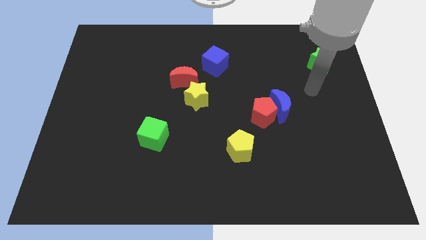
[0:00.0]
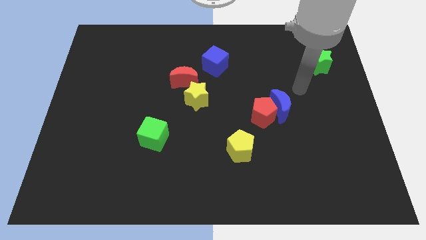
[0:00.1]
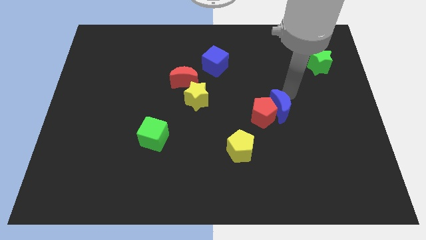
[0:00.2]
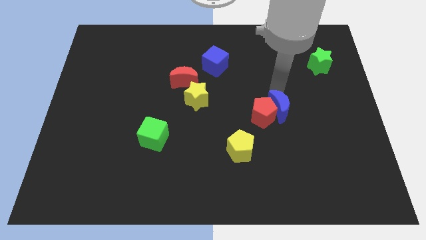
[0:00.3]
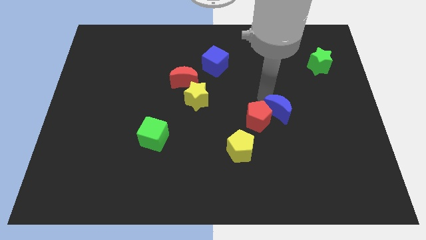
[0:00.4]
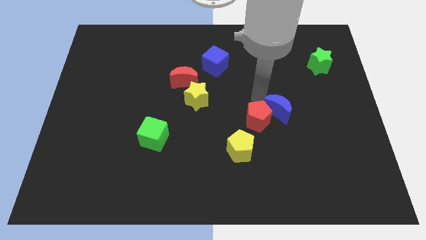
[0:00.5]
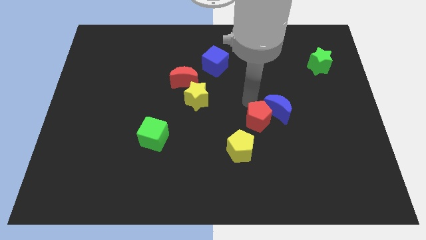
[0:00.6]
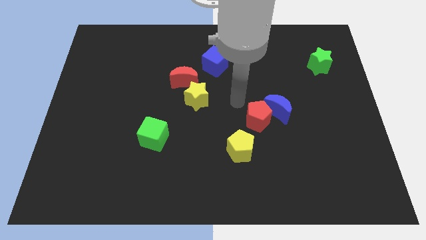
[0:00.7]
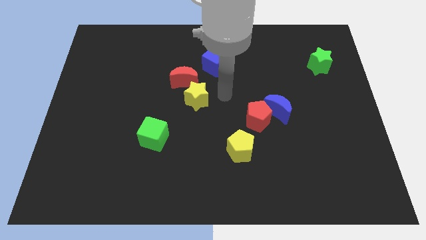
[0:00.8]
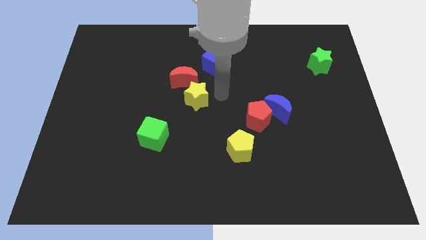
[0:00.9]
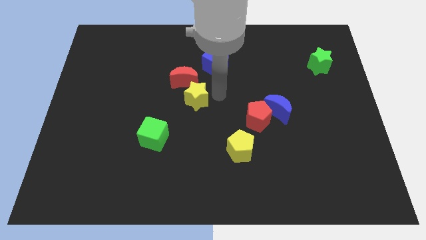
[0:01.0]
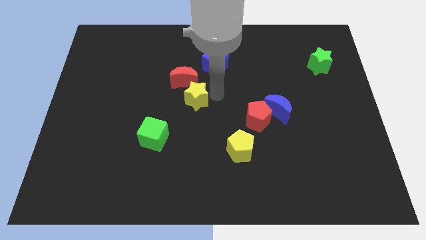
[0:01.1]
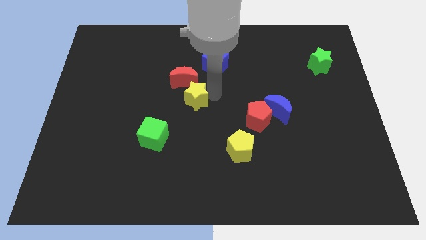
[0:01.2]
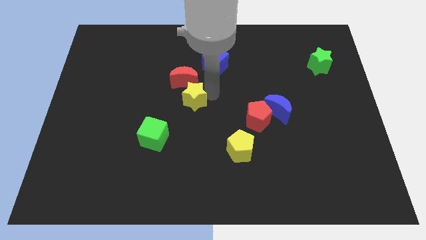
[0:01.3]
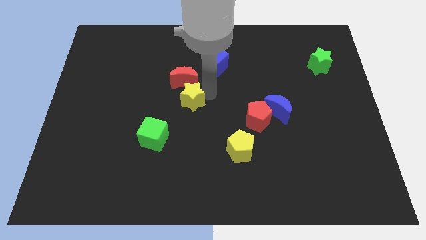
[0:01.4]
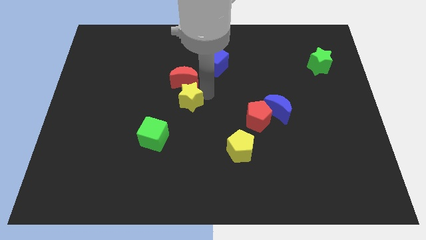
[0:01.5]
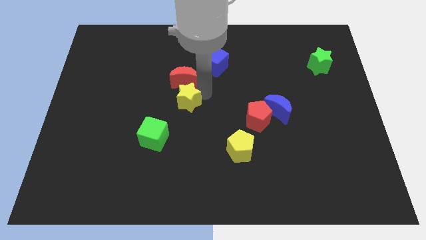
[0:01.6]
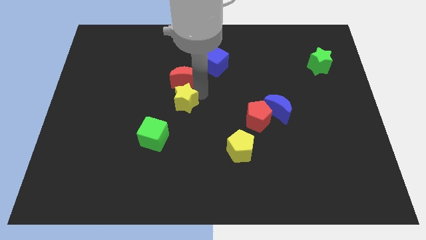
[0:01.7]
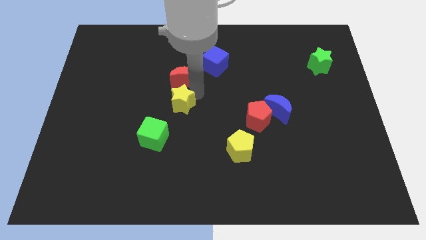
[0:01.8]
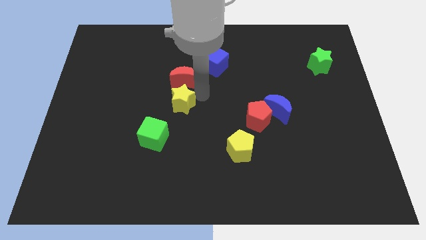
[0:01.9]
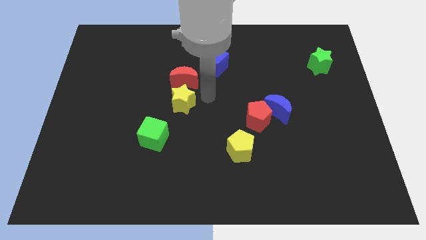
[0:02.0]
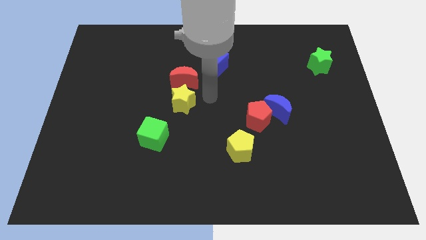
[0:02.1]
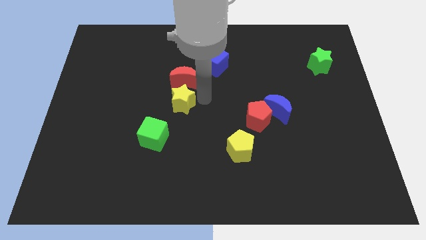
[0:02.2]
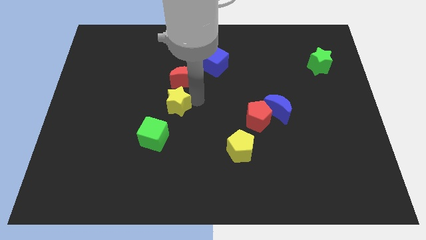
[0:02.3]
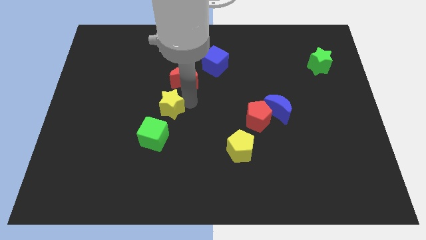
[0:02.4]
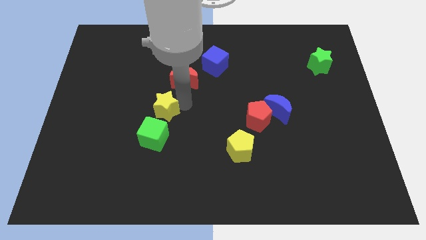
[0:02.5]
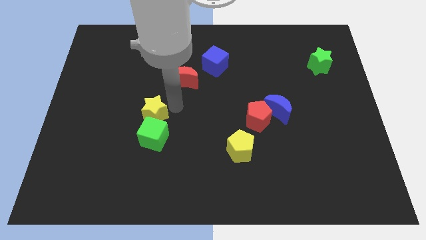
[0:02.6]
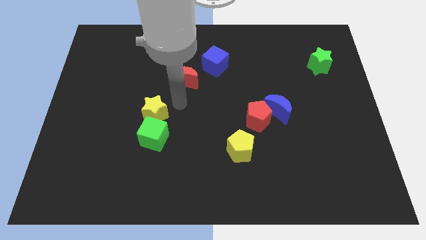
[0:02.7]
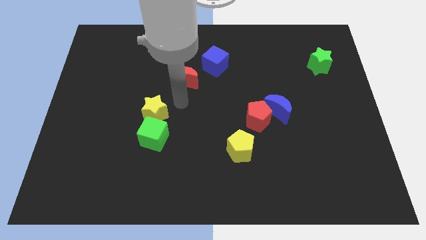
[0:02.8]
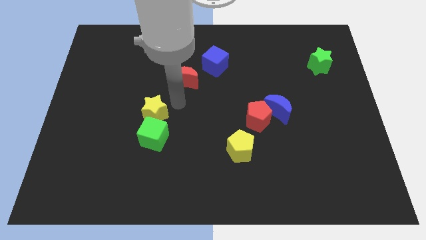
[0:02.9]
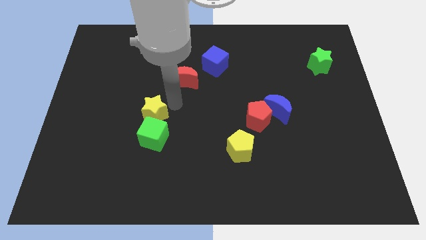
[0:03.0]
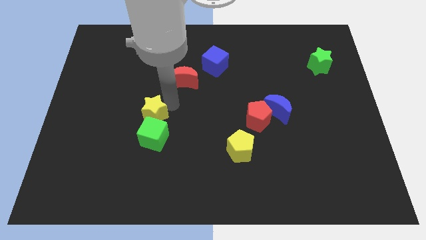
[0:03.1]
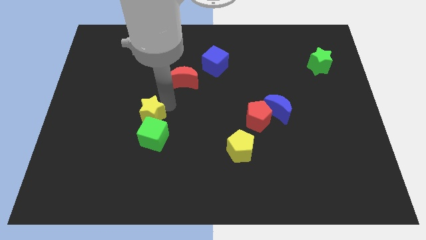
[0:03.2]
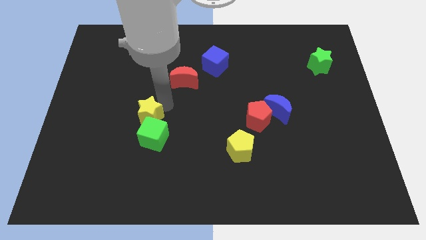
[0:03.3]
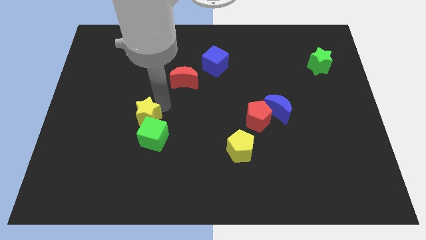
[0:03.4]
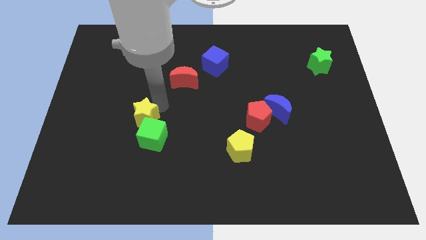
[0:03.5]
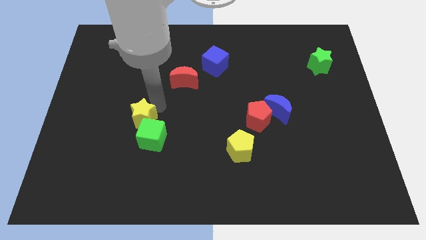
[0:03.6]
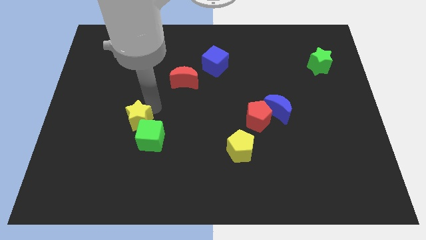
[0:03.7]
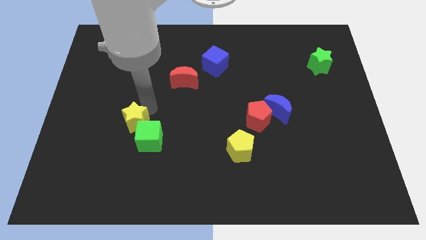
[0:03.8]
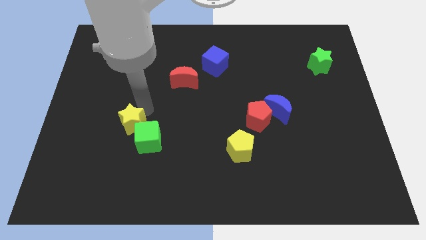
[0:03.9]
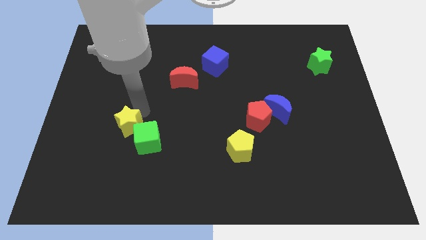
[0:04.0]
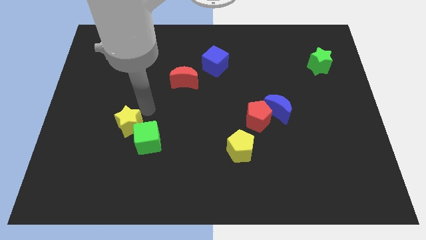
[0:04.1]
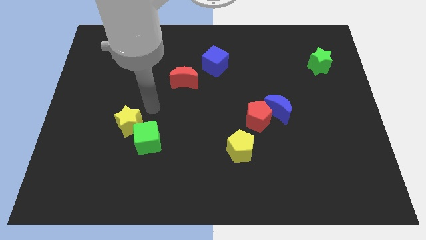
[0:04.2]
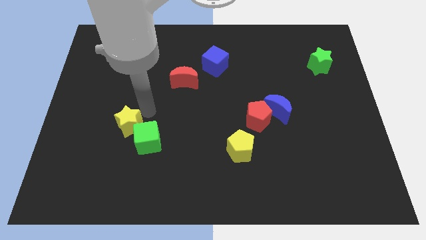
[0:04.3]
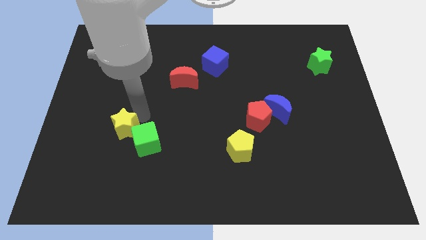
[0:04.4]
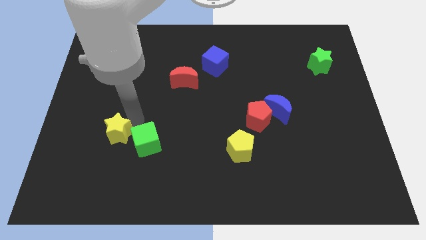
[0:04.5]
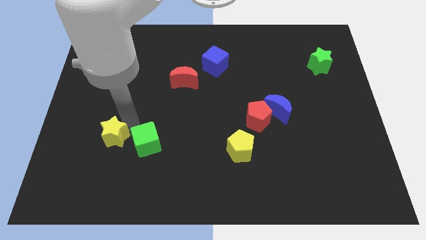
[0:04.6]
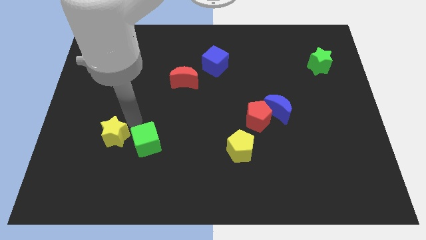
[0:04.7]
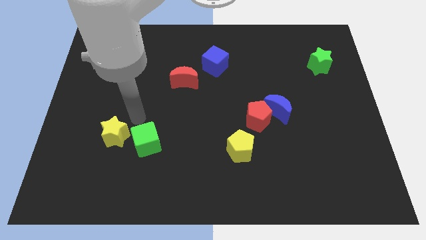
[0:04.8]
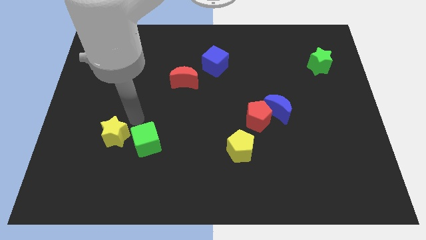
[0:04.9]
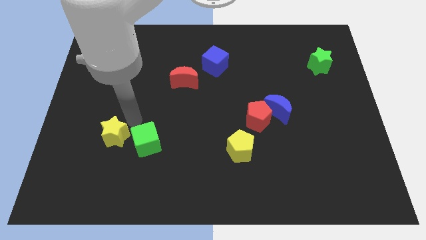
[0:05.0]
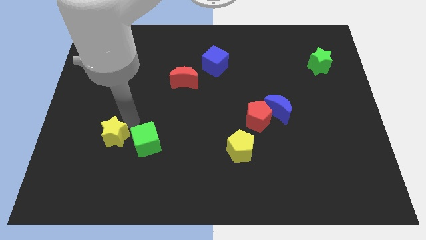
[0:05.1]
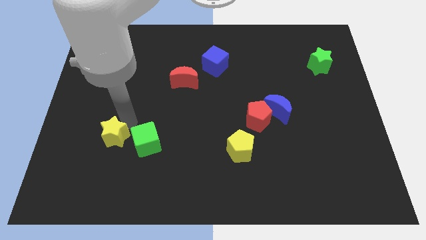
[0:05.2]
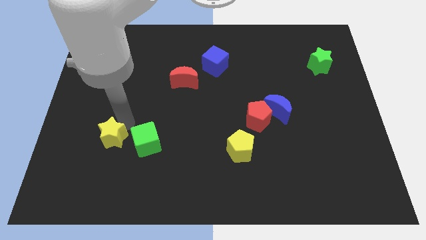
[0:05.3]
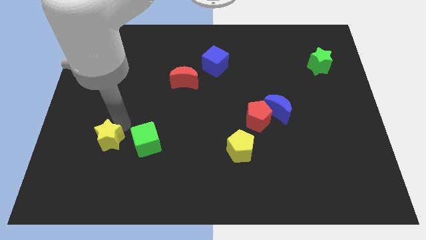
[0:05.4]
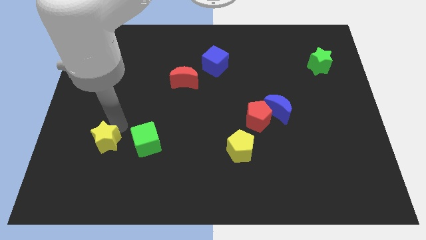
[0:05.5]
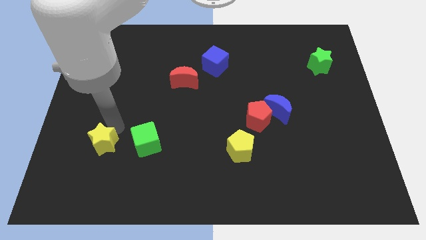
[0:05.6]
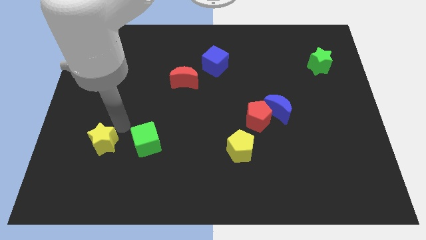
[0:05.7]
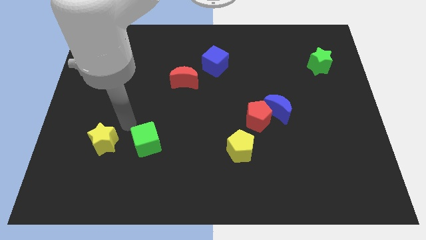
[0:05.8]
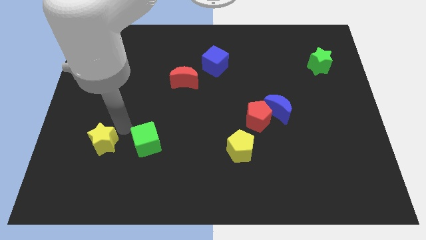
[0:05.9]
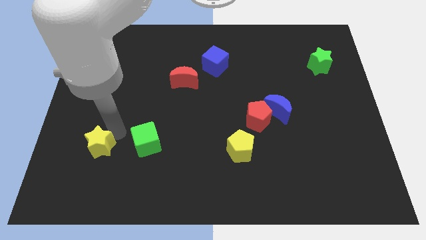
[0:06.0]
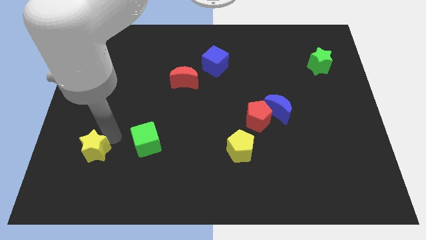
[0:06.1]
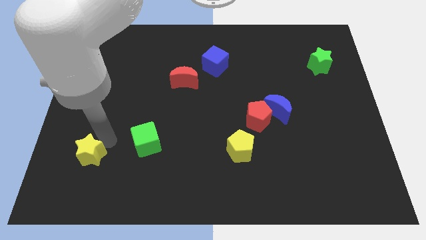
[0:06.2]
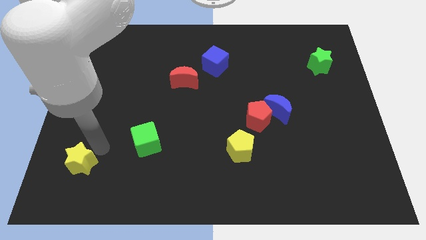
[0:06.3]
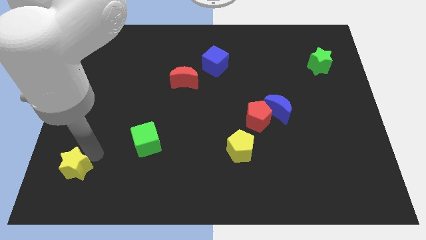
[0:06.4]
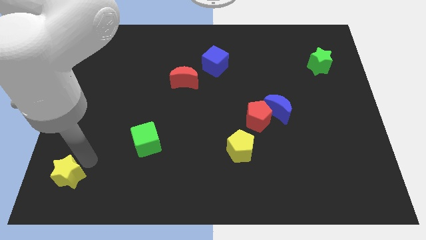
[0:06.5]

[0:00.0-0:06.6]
push the yellow star to the bottom left

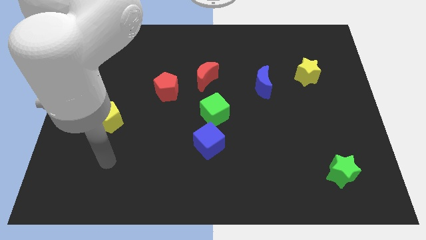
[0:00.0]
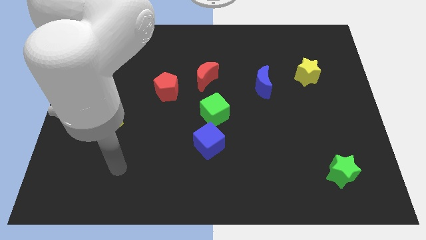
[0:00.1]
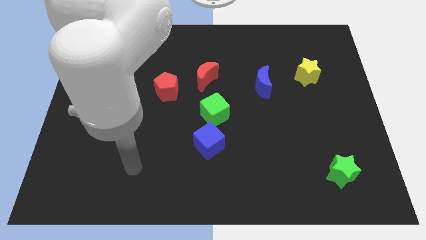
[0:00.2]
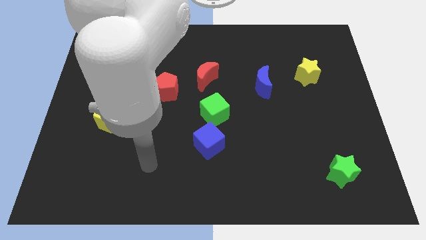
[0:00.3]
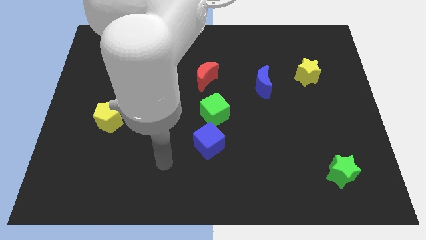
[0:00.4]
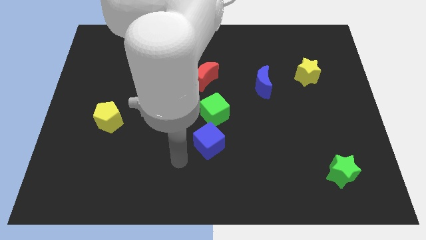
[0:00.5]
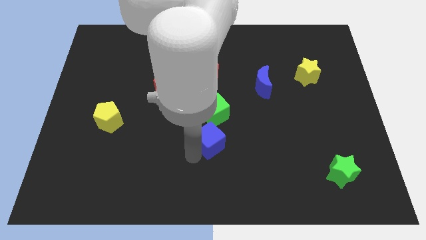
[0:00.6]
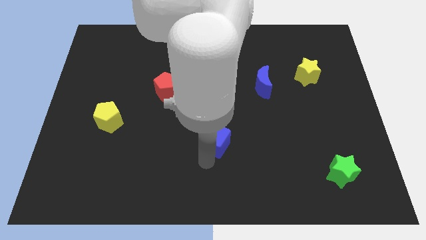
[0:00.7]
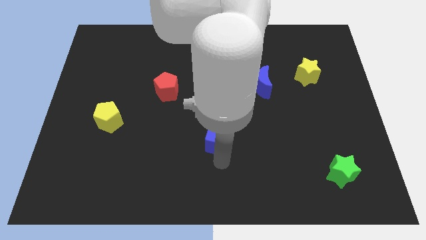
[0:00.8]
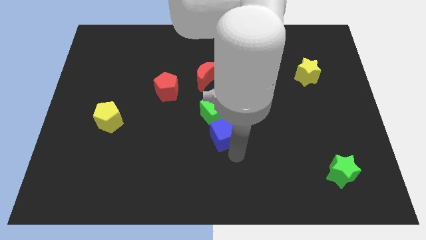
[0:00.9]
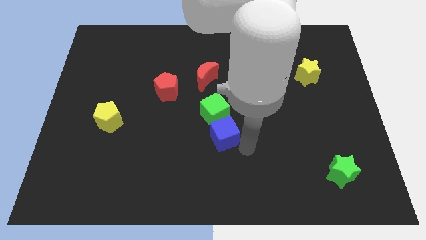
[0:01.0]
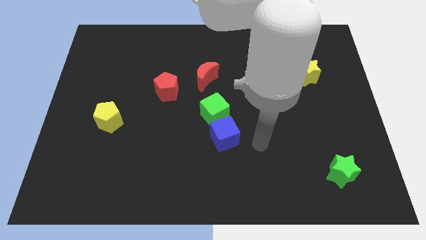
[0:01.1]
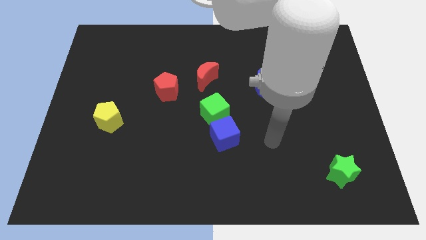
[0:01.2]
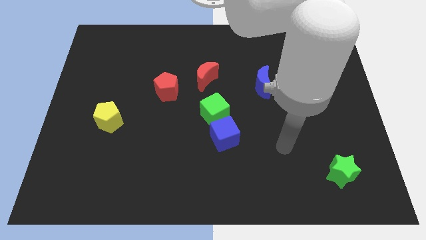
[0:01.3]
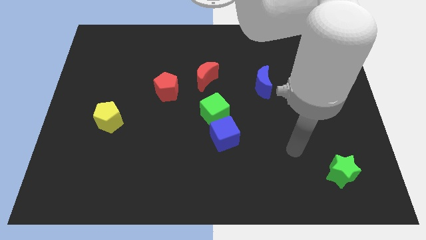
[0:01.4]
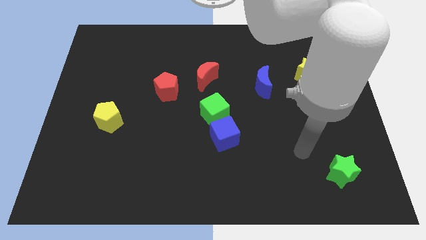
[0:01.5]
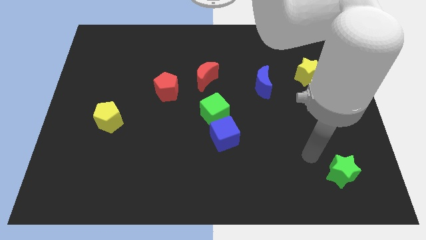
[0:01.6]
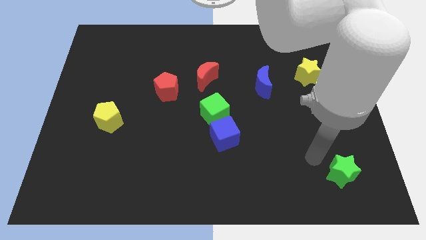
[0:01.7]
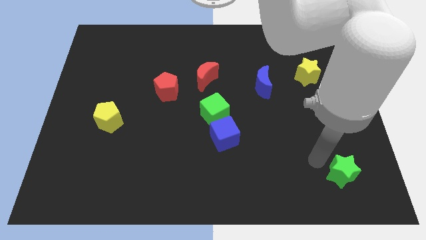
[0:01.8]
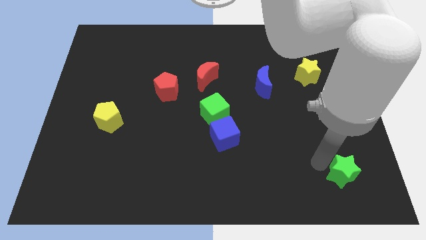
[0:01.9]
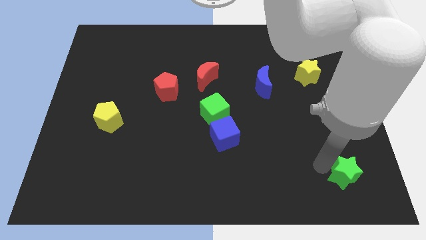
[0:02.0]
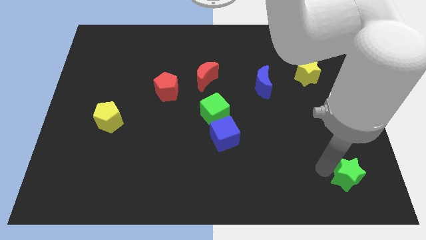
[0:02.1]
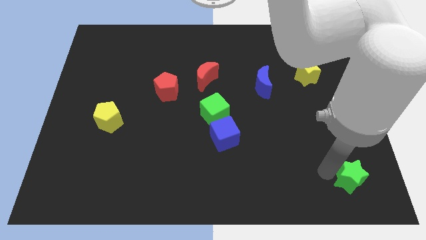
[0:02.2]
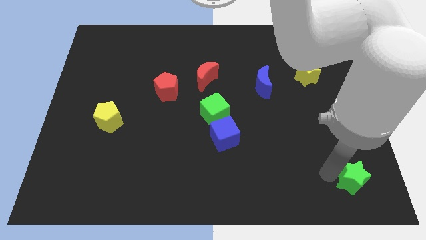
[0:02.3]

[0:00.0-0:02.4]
move the green star to the bottom right
